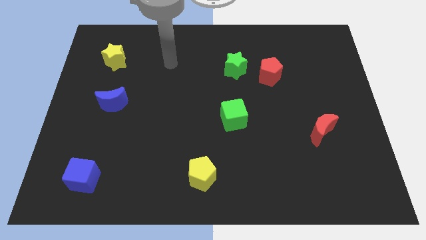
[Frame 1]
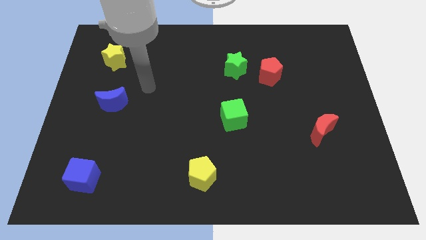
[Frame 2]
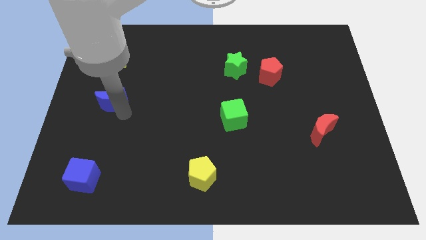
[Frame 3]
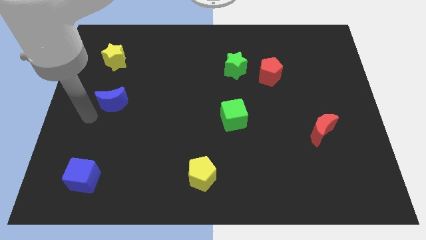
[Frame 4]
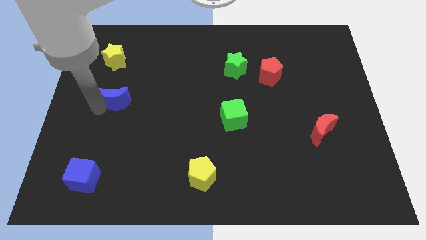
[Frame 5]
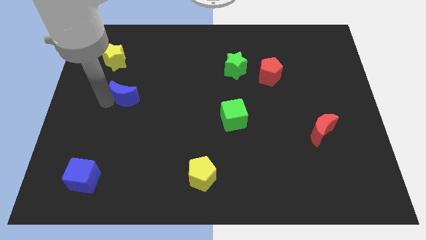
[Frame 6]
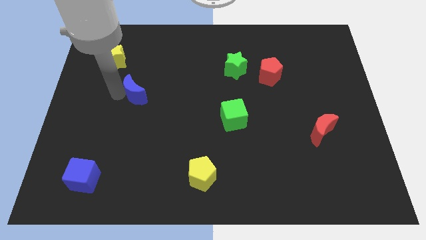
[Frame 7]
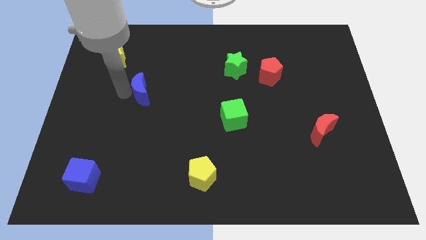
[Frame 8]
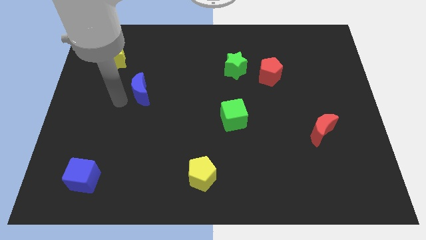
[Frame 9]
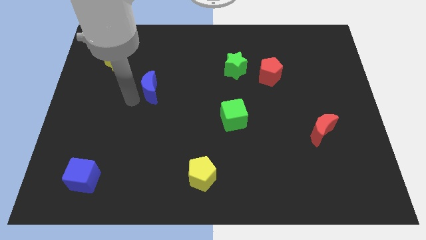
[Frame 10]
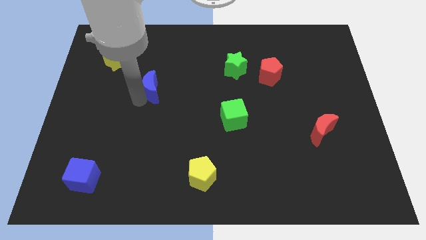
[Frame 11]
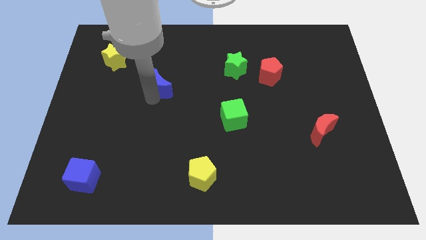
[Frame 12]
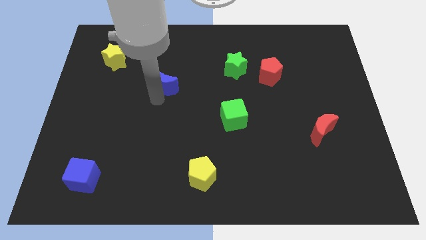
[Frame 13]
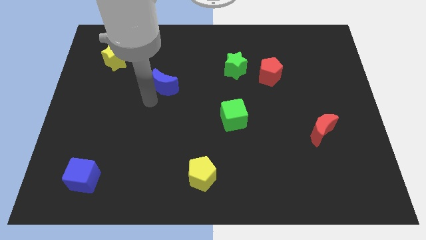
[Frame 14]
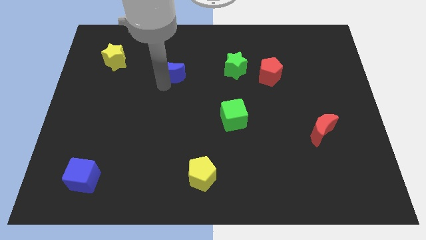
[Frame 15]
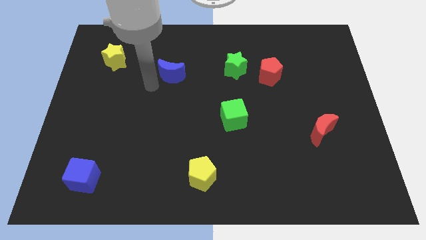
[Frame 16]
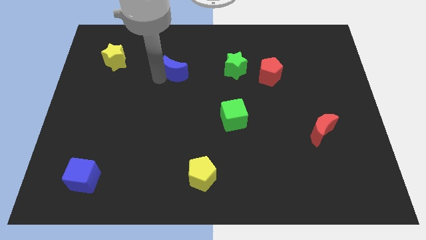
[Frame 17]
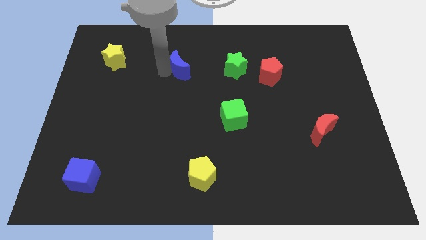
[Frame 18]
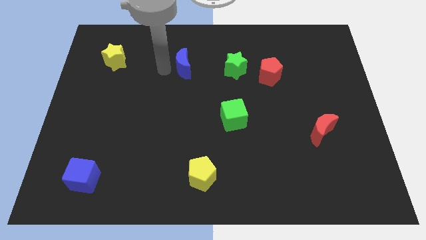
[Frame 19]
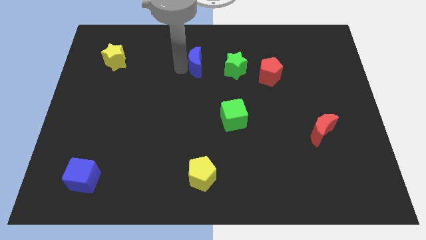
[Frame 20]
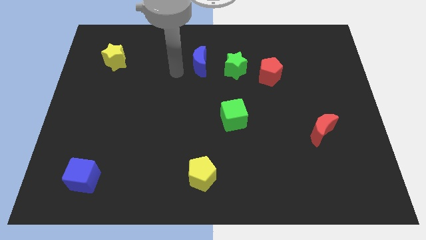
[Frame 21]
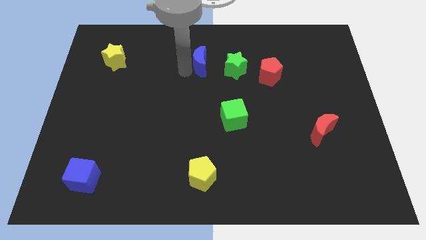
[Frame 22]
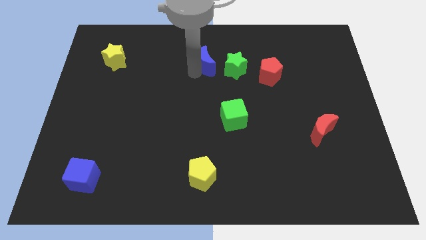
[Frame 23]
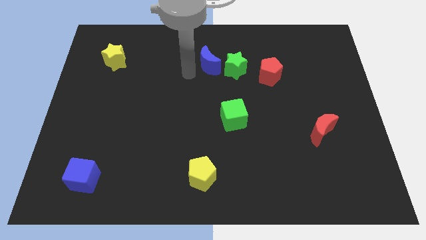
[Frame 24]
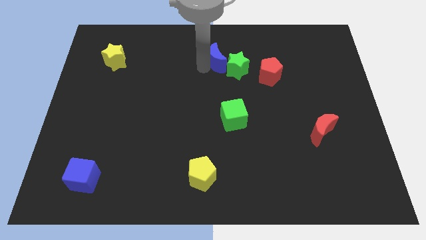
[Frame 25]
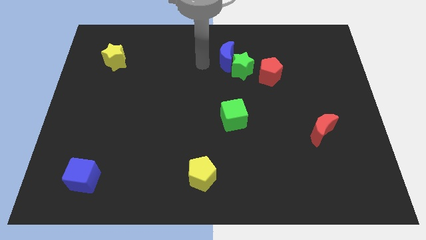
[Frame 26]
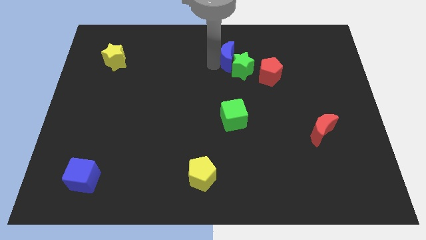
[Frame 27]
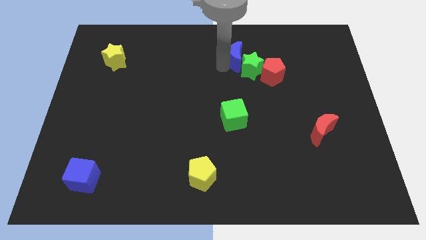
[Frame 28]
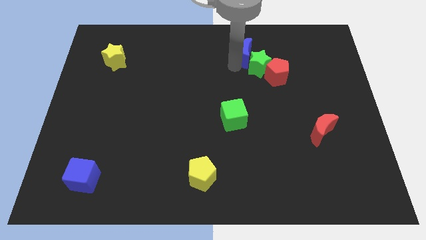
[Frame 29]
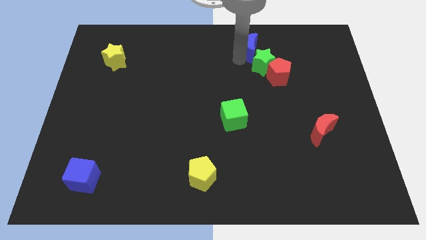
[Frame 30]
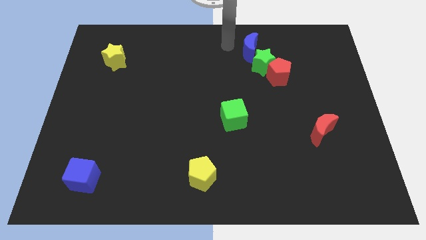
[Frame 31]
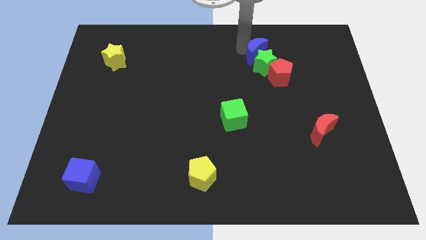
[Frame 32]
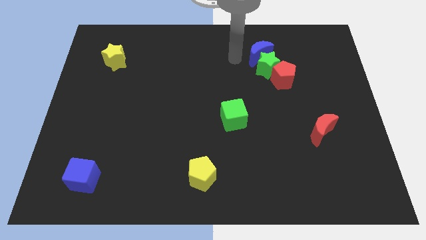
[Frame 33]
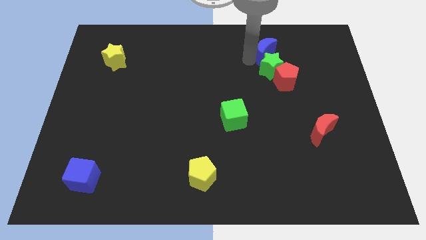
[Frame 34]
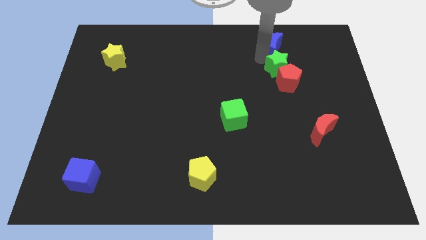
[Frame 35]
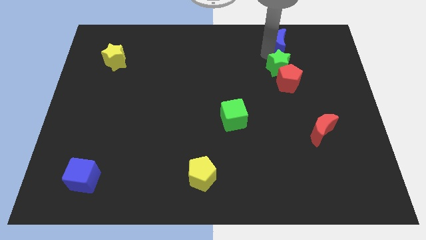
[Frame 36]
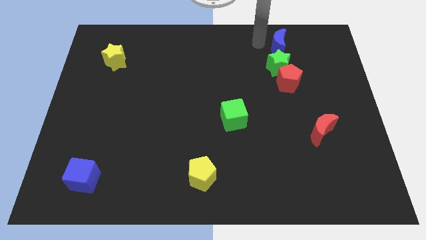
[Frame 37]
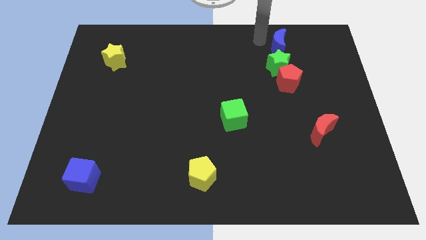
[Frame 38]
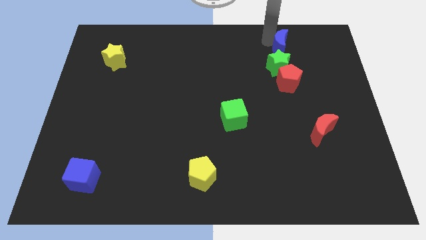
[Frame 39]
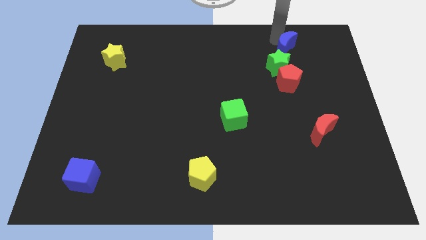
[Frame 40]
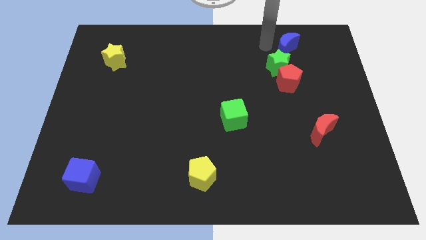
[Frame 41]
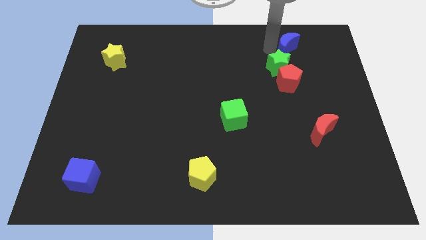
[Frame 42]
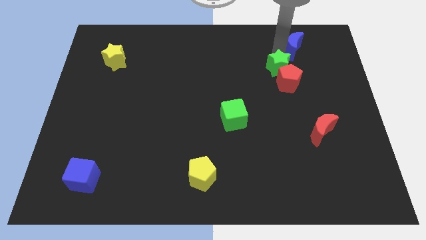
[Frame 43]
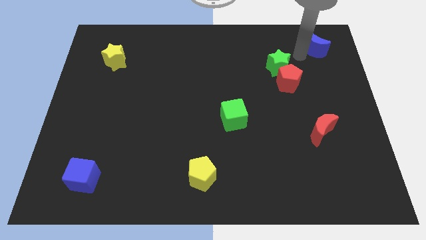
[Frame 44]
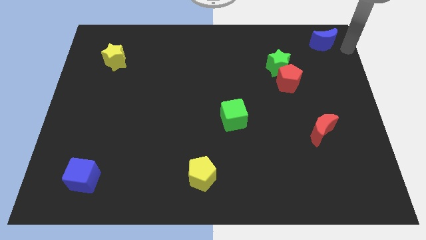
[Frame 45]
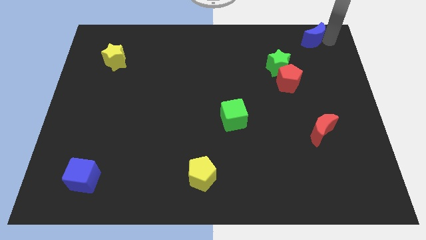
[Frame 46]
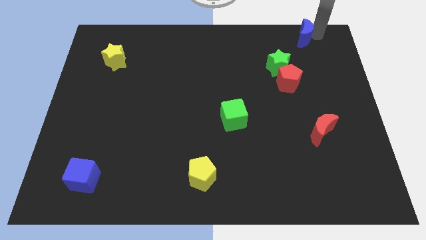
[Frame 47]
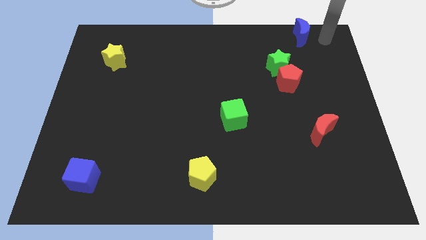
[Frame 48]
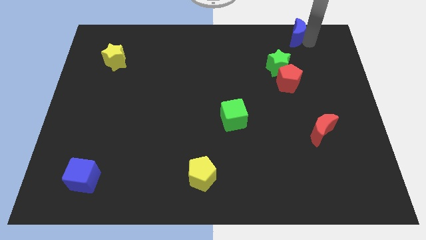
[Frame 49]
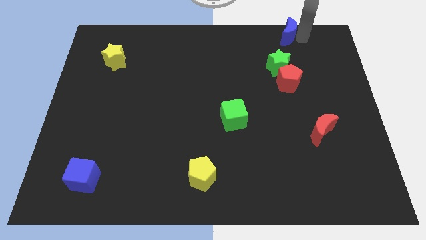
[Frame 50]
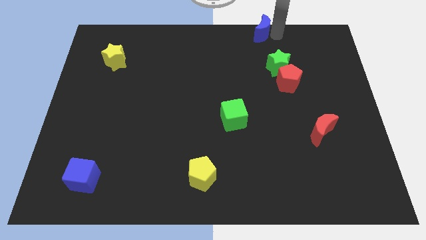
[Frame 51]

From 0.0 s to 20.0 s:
push the blue moon to the top side

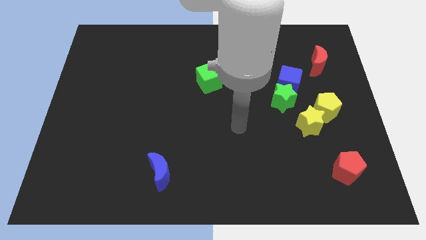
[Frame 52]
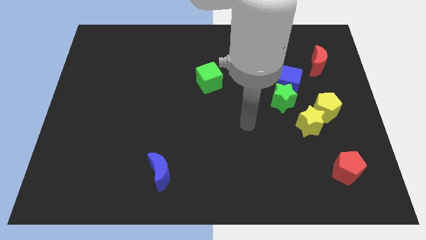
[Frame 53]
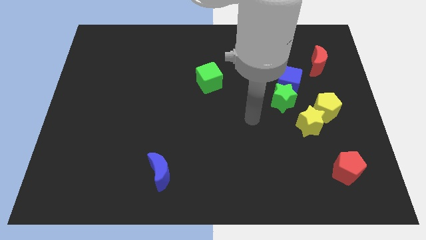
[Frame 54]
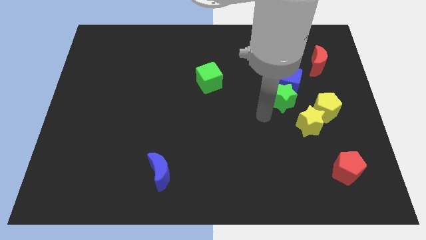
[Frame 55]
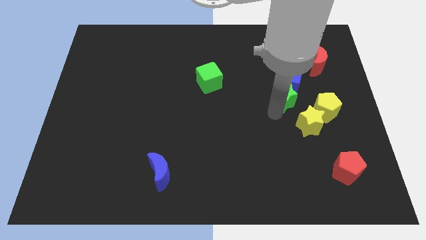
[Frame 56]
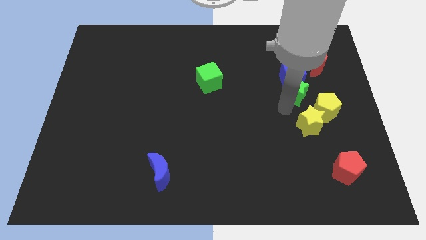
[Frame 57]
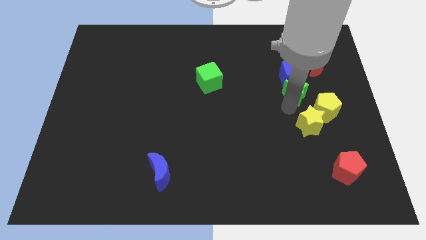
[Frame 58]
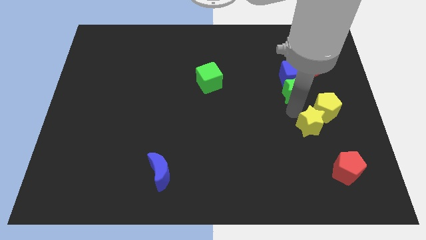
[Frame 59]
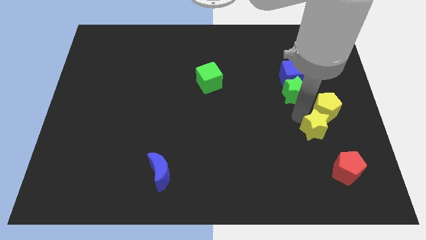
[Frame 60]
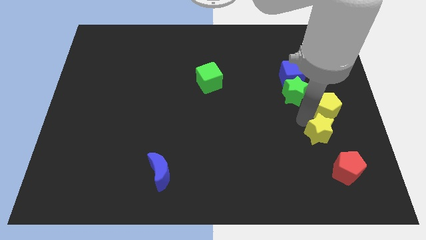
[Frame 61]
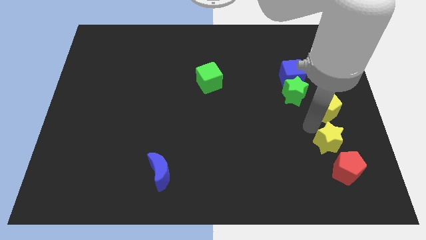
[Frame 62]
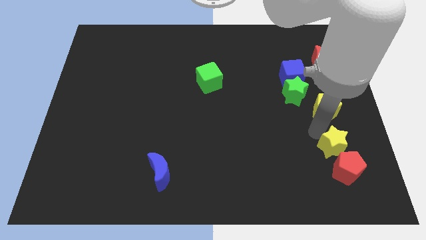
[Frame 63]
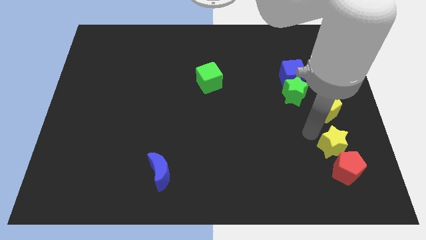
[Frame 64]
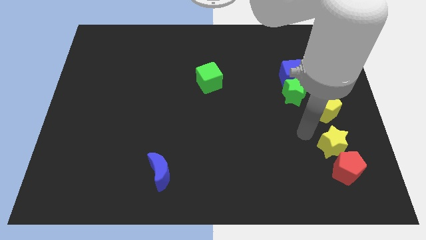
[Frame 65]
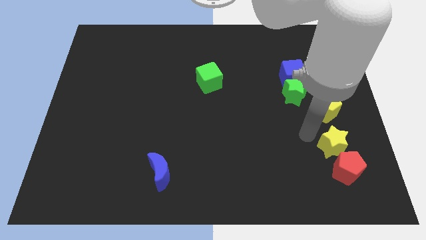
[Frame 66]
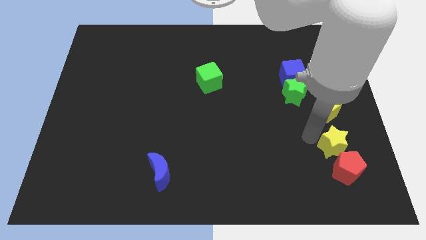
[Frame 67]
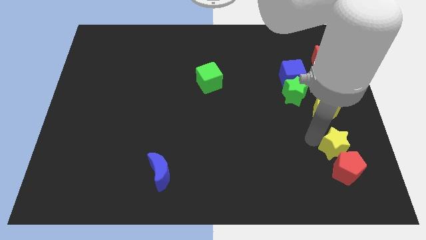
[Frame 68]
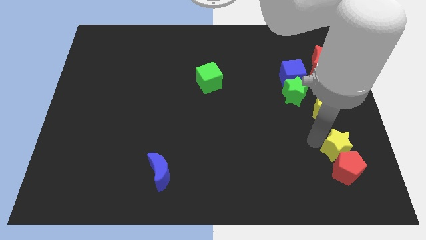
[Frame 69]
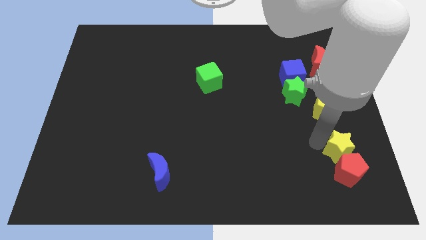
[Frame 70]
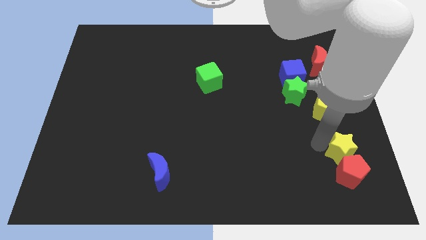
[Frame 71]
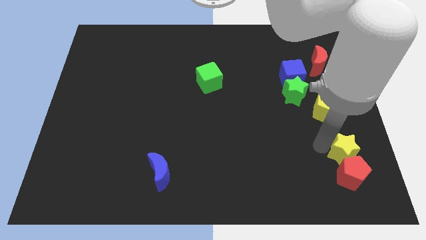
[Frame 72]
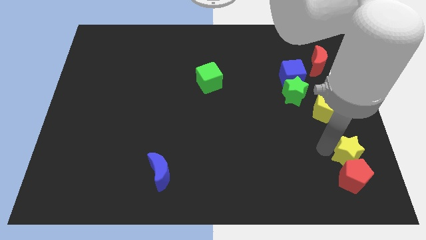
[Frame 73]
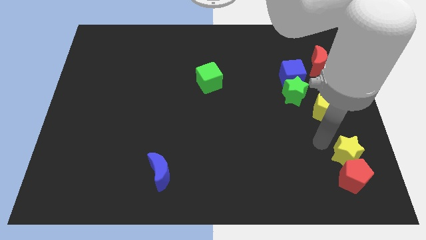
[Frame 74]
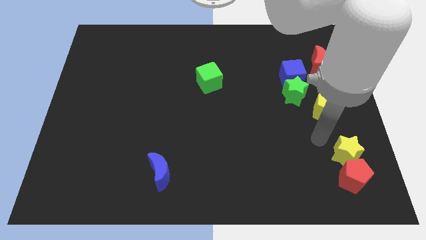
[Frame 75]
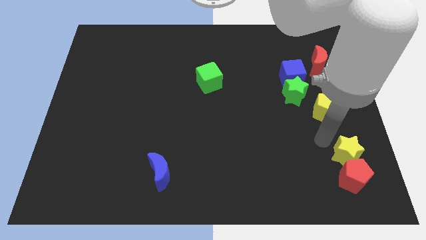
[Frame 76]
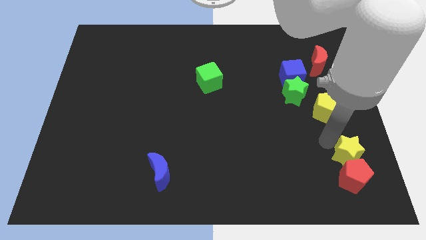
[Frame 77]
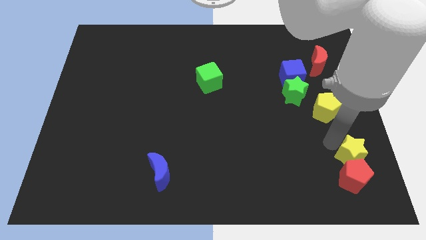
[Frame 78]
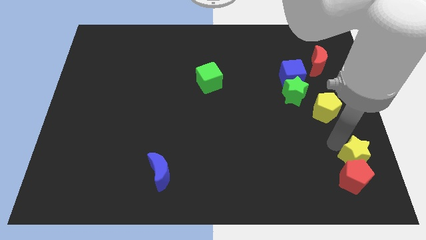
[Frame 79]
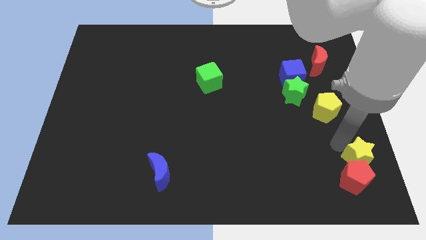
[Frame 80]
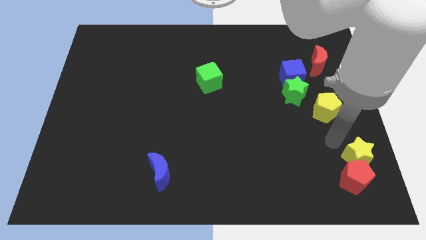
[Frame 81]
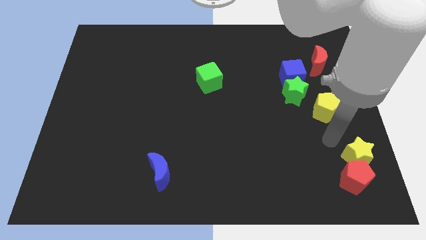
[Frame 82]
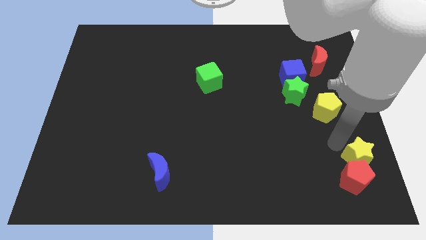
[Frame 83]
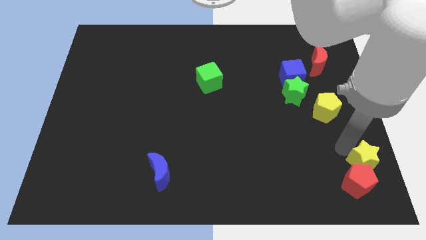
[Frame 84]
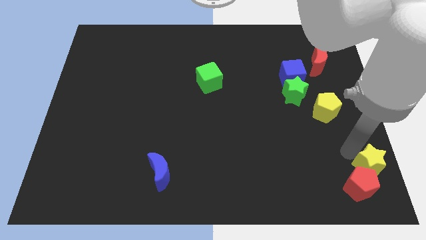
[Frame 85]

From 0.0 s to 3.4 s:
slide the yellow star to the bottom right
